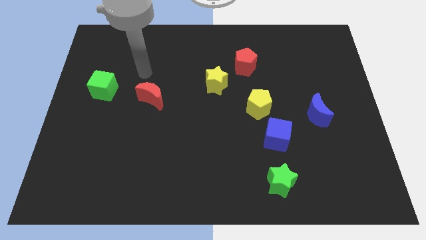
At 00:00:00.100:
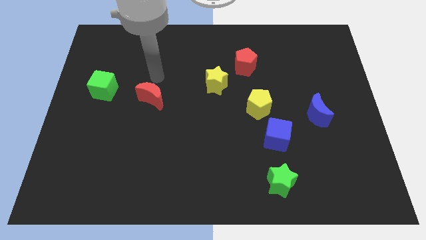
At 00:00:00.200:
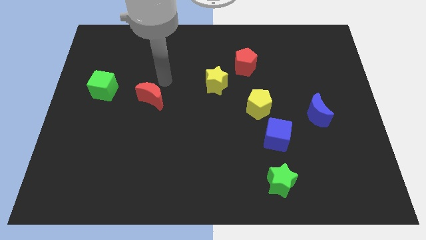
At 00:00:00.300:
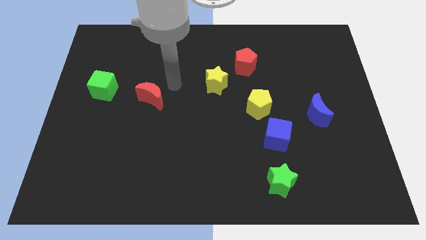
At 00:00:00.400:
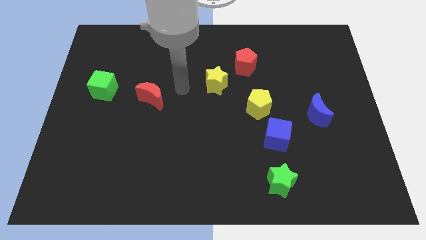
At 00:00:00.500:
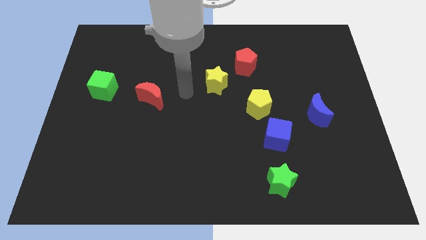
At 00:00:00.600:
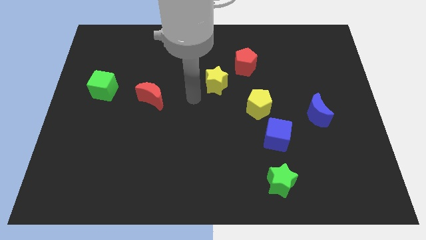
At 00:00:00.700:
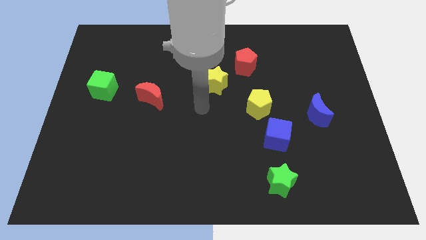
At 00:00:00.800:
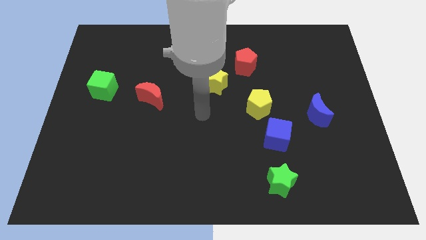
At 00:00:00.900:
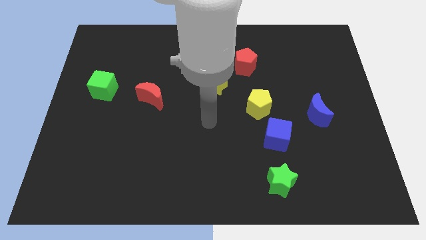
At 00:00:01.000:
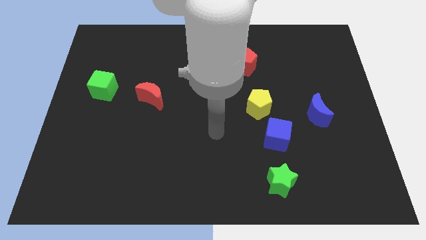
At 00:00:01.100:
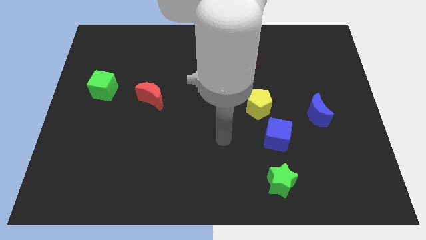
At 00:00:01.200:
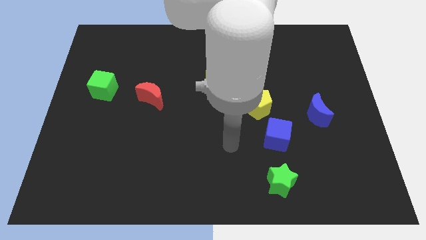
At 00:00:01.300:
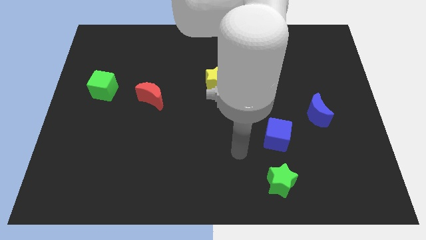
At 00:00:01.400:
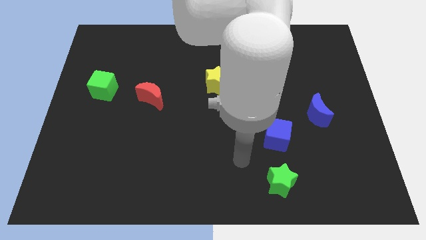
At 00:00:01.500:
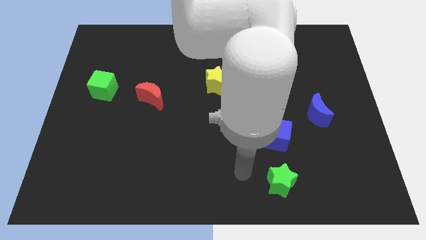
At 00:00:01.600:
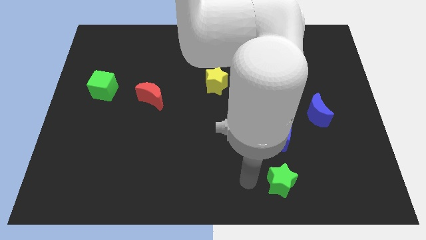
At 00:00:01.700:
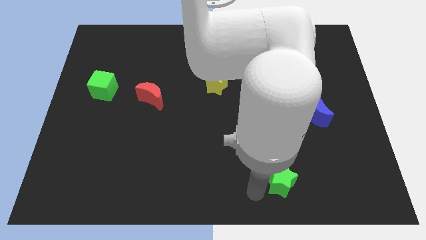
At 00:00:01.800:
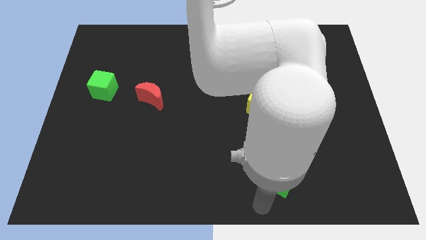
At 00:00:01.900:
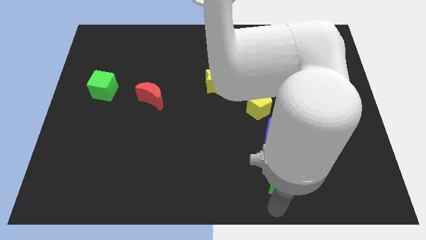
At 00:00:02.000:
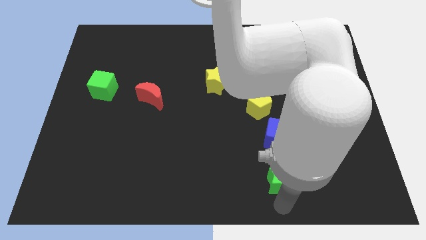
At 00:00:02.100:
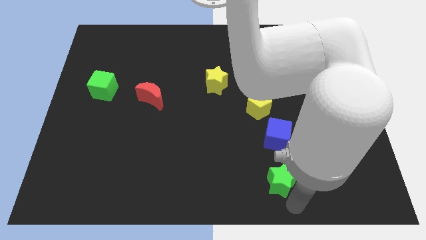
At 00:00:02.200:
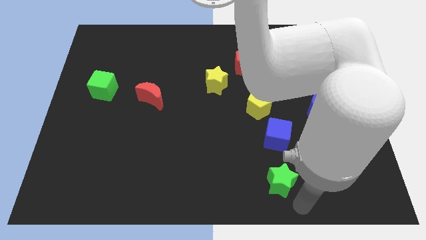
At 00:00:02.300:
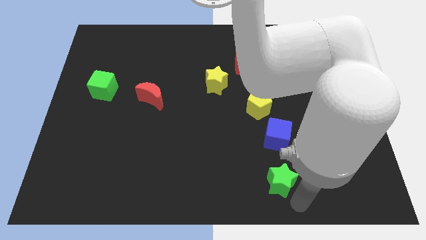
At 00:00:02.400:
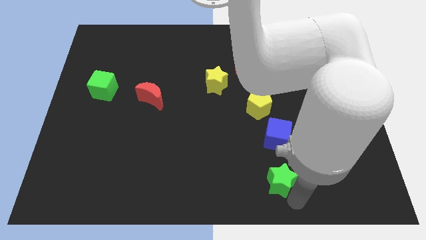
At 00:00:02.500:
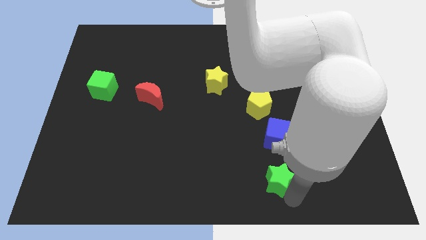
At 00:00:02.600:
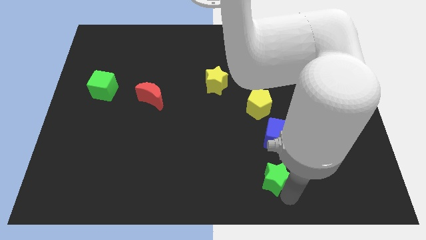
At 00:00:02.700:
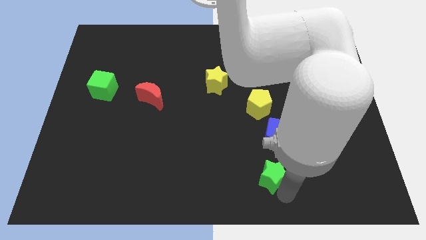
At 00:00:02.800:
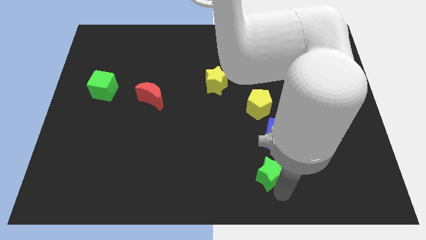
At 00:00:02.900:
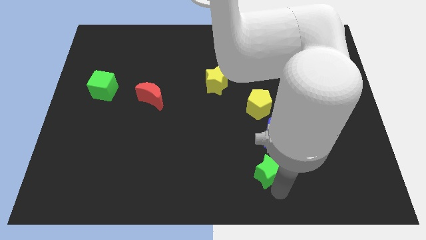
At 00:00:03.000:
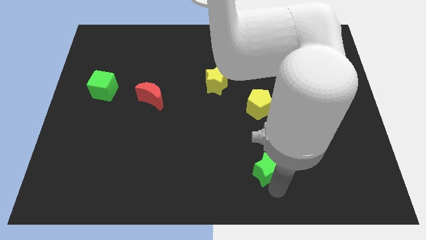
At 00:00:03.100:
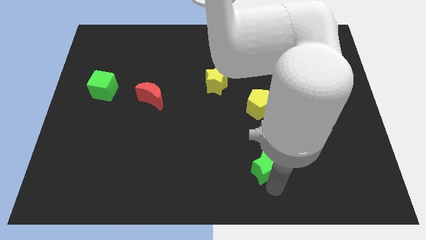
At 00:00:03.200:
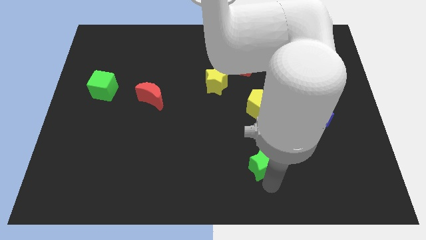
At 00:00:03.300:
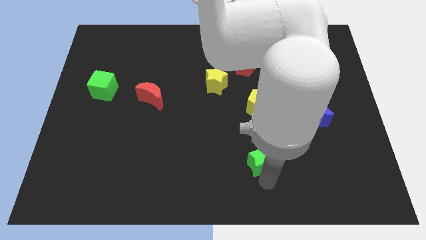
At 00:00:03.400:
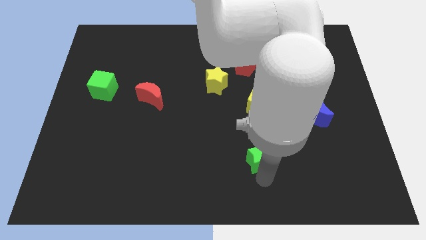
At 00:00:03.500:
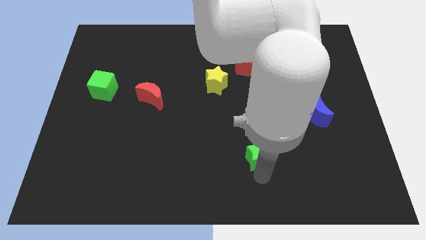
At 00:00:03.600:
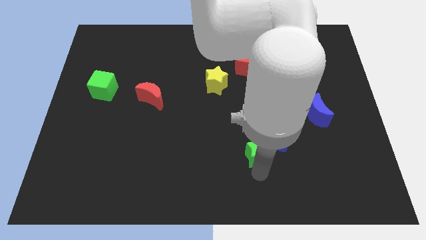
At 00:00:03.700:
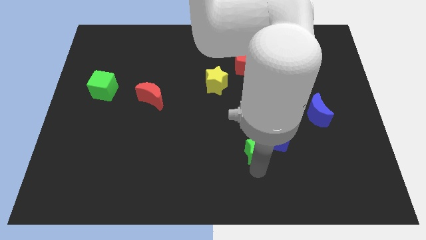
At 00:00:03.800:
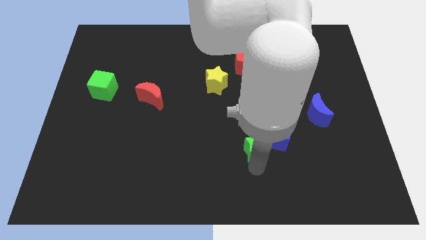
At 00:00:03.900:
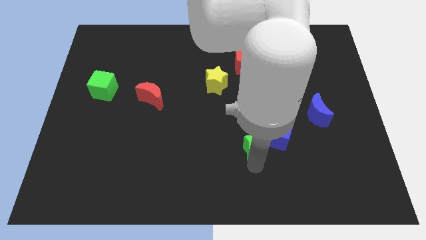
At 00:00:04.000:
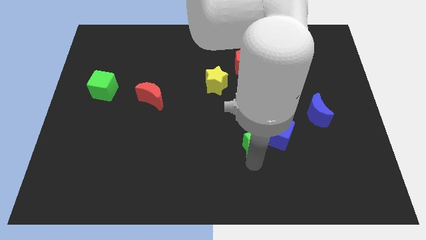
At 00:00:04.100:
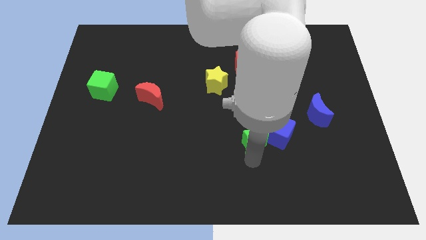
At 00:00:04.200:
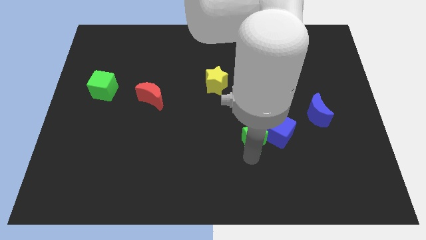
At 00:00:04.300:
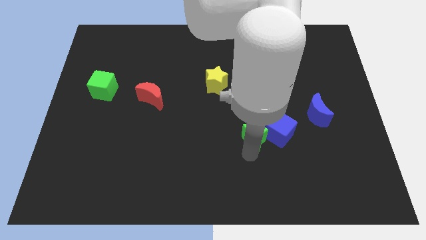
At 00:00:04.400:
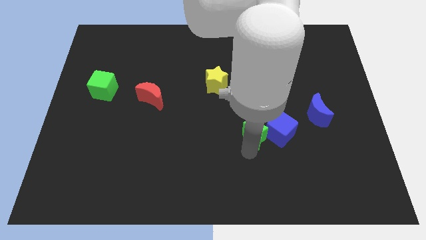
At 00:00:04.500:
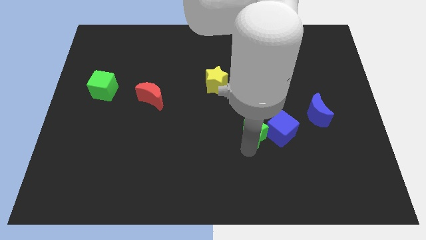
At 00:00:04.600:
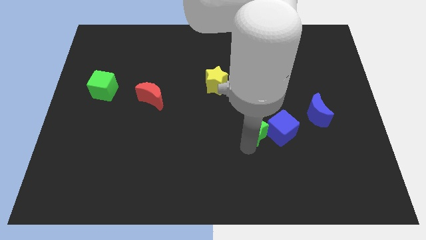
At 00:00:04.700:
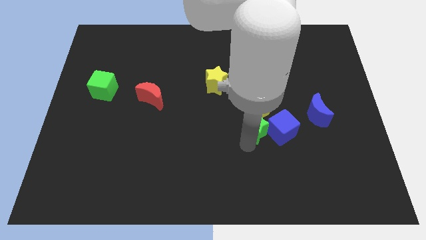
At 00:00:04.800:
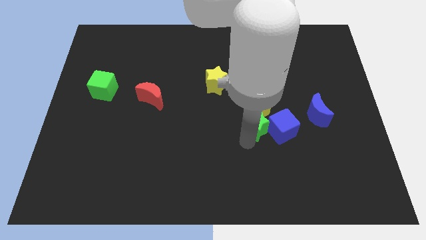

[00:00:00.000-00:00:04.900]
move the green star towards the yellow pentagon

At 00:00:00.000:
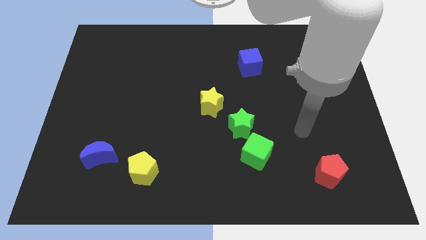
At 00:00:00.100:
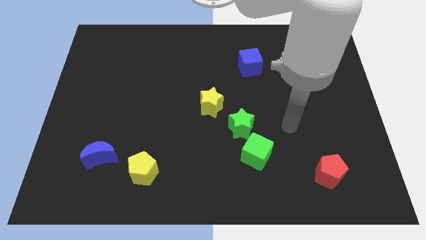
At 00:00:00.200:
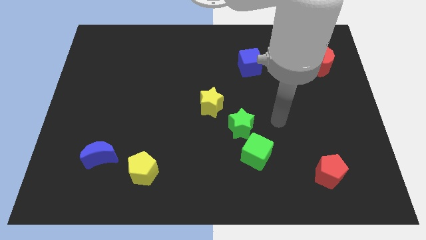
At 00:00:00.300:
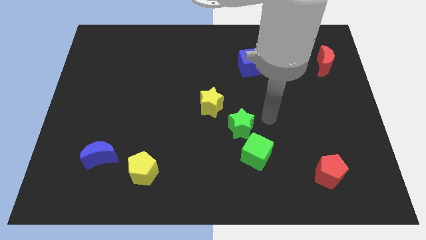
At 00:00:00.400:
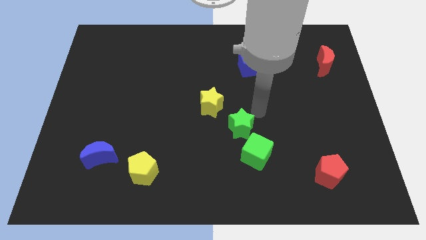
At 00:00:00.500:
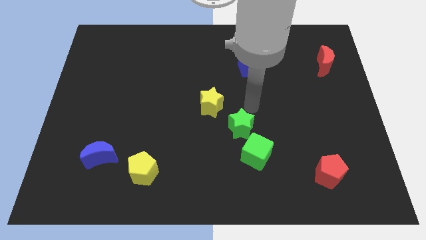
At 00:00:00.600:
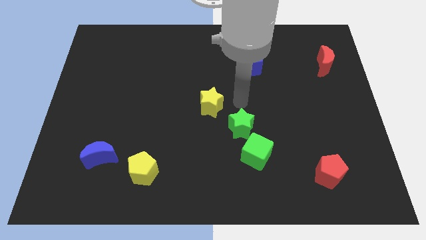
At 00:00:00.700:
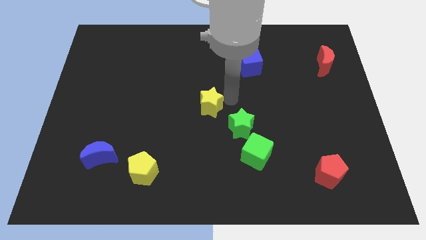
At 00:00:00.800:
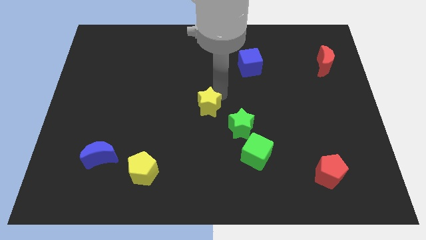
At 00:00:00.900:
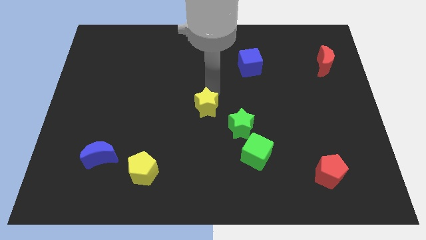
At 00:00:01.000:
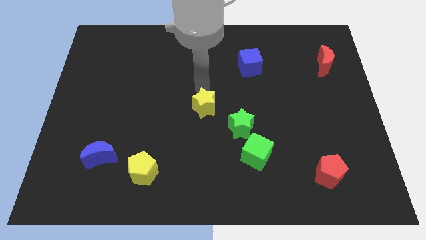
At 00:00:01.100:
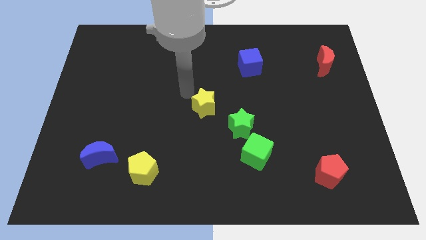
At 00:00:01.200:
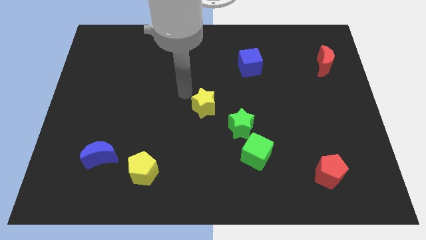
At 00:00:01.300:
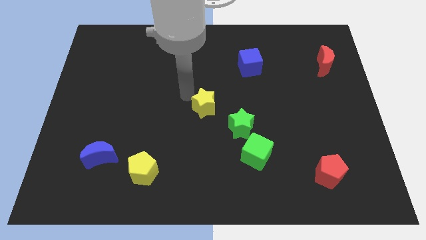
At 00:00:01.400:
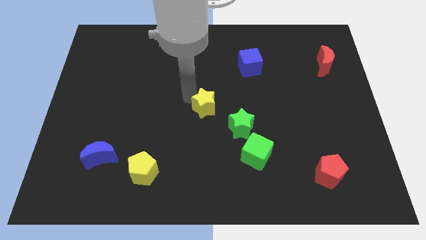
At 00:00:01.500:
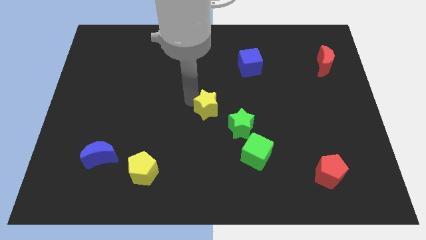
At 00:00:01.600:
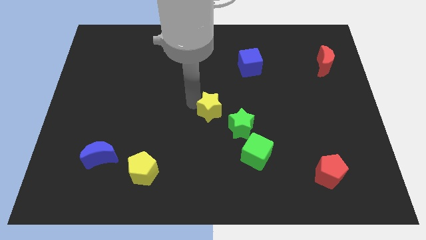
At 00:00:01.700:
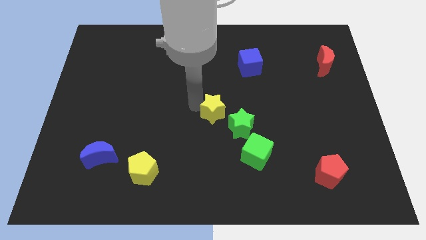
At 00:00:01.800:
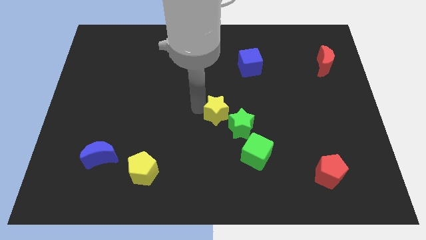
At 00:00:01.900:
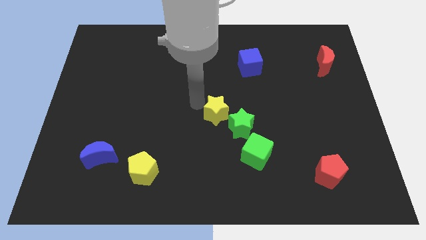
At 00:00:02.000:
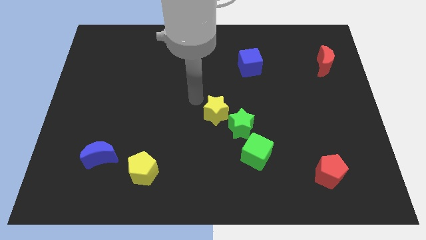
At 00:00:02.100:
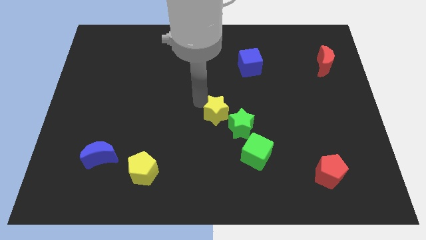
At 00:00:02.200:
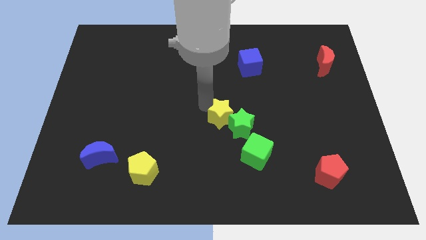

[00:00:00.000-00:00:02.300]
slide the yellow star next to the green star
